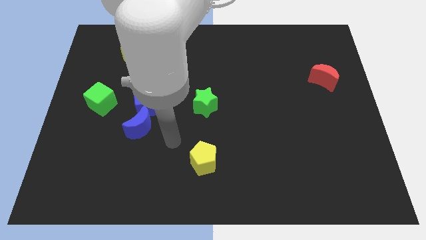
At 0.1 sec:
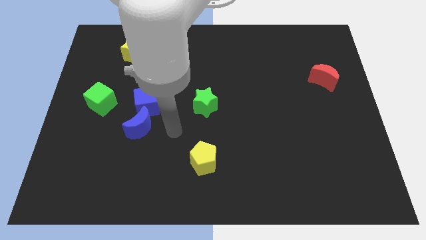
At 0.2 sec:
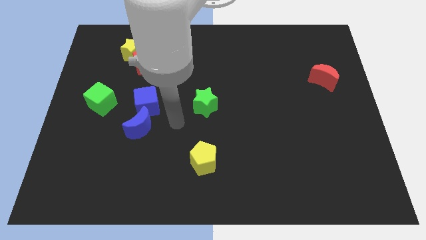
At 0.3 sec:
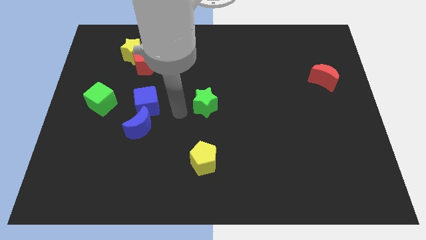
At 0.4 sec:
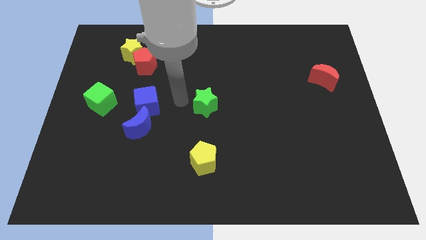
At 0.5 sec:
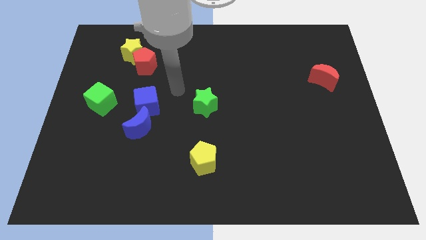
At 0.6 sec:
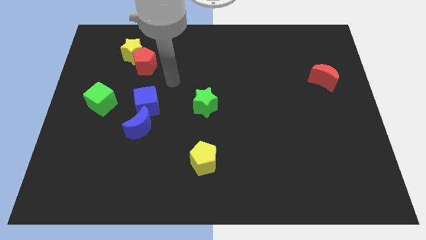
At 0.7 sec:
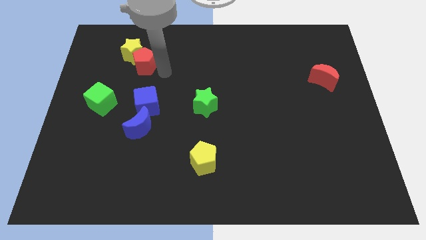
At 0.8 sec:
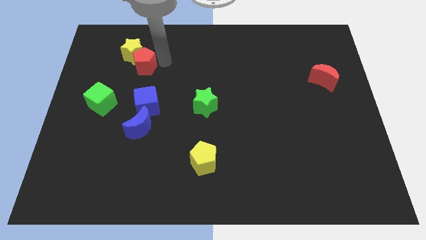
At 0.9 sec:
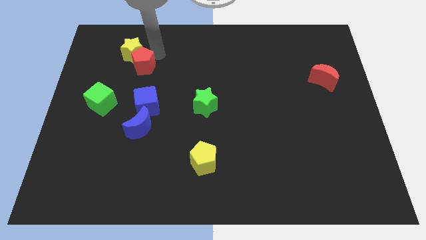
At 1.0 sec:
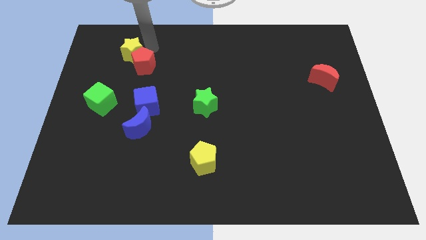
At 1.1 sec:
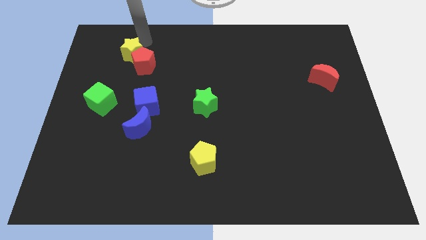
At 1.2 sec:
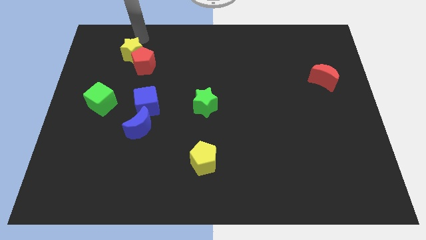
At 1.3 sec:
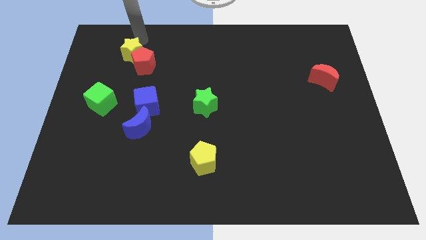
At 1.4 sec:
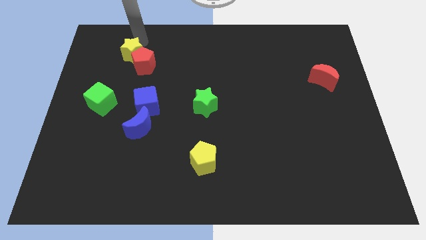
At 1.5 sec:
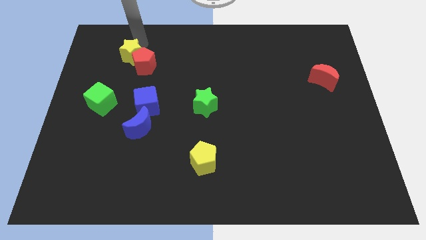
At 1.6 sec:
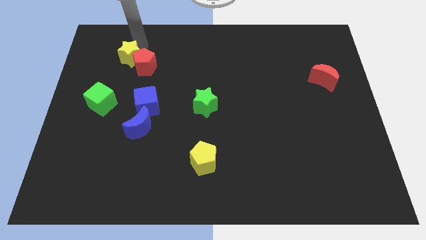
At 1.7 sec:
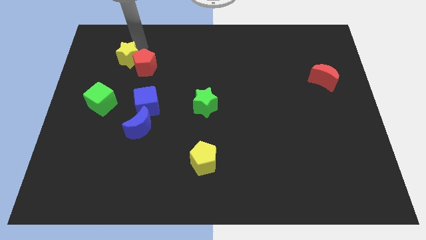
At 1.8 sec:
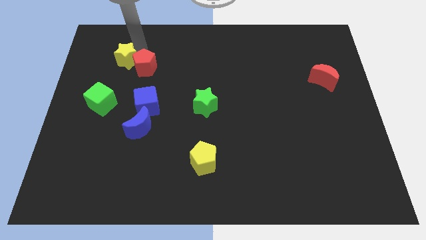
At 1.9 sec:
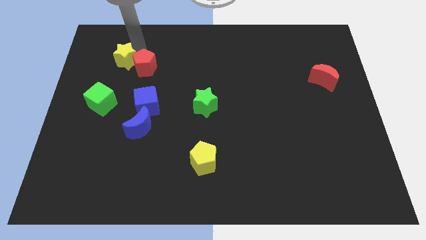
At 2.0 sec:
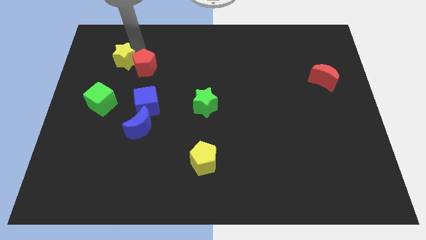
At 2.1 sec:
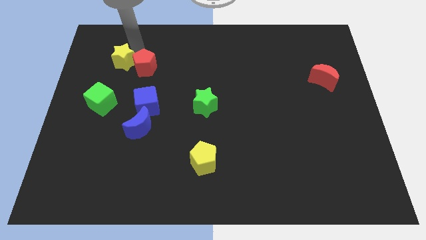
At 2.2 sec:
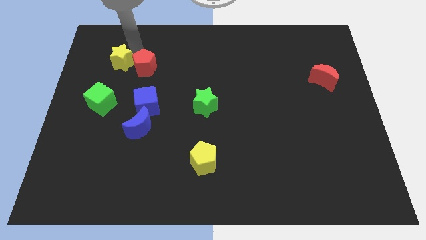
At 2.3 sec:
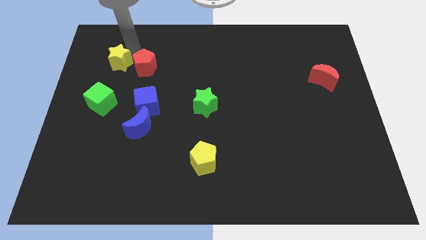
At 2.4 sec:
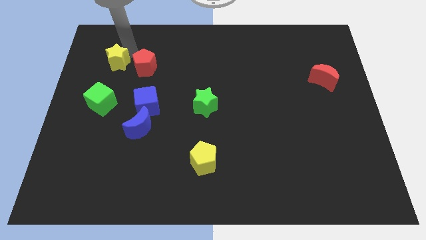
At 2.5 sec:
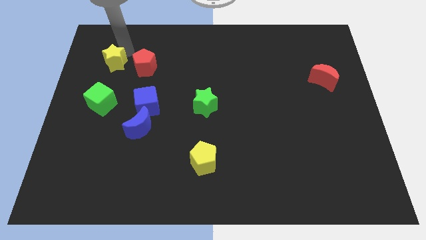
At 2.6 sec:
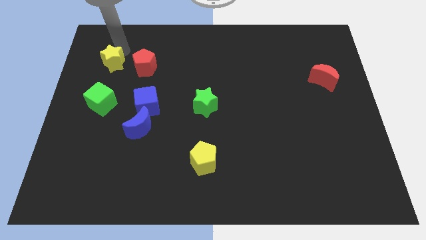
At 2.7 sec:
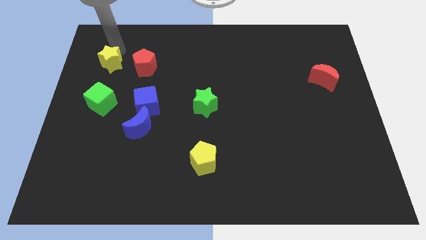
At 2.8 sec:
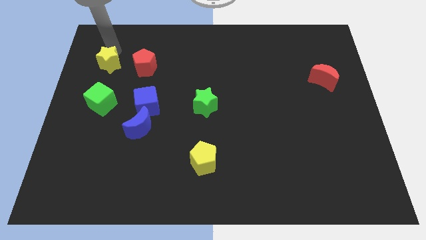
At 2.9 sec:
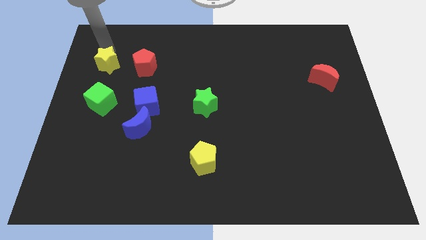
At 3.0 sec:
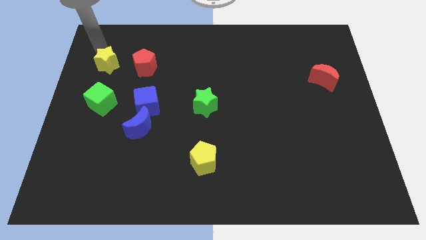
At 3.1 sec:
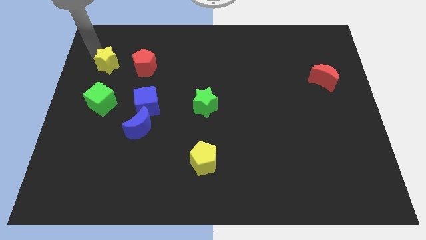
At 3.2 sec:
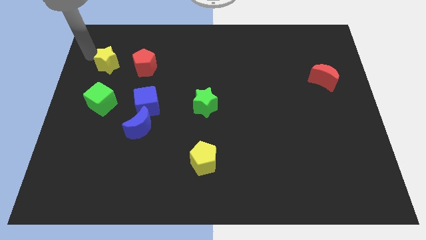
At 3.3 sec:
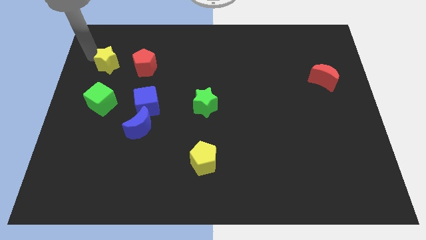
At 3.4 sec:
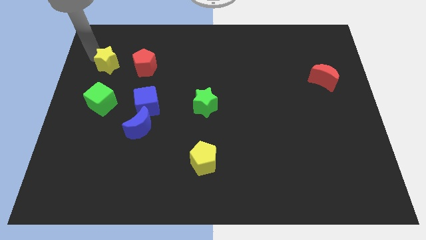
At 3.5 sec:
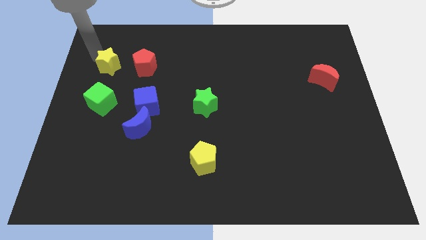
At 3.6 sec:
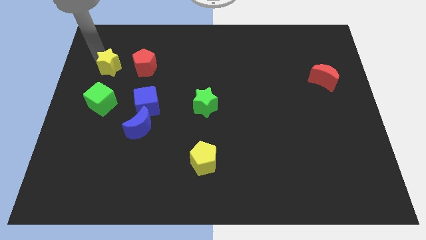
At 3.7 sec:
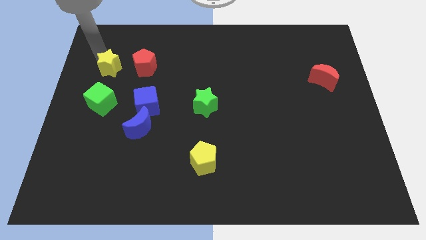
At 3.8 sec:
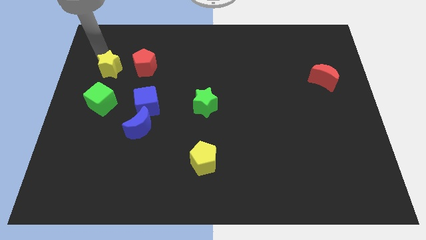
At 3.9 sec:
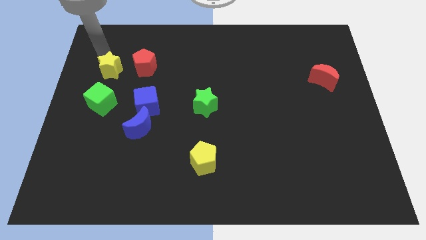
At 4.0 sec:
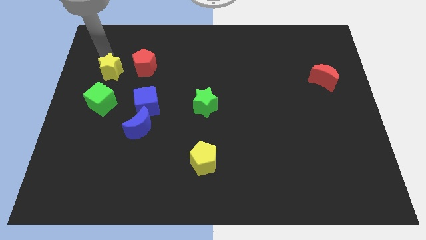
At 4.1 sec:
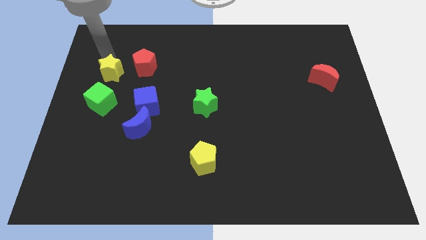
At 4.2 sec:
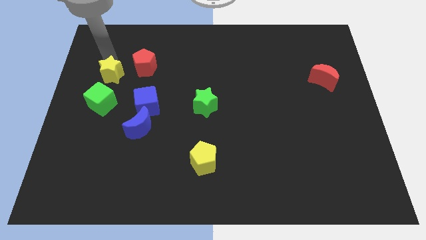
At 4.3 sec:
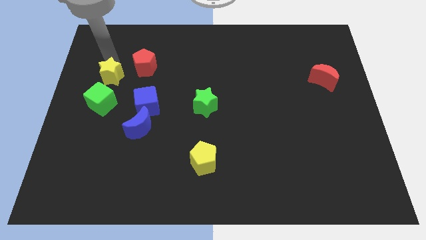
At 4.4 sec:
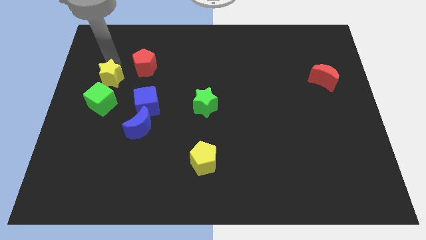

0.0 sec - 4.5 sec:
move the yellow star a little bit downwards

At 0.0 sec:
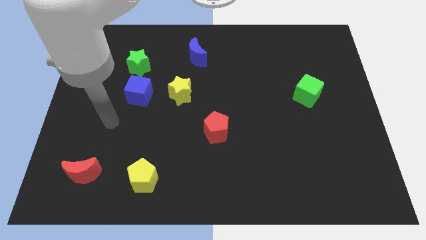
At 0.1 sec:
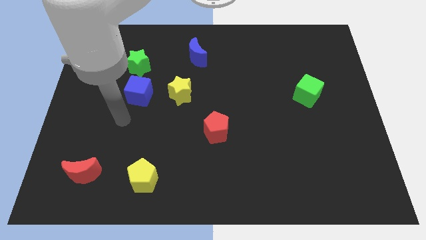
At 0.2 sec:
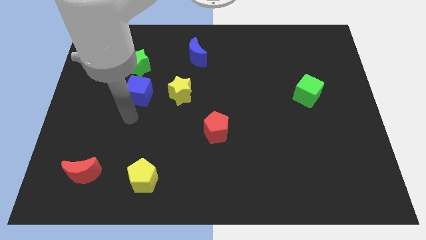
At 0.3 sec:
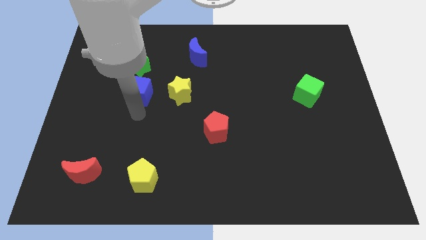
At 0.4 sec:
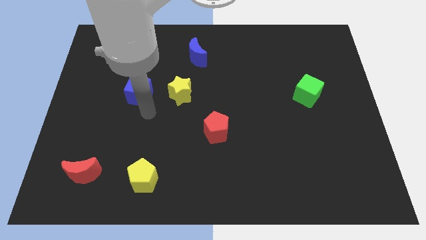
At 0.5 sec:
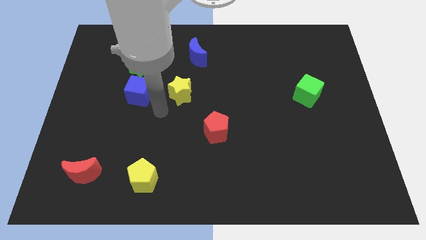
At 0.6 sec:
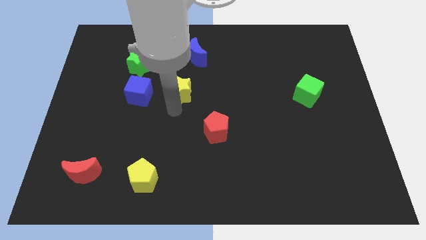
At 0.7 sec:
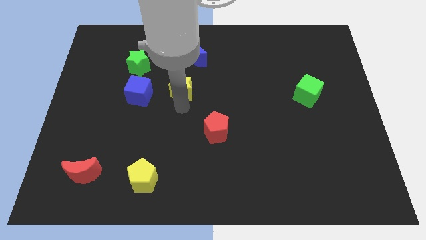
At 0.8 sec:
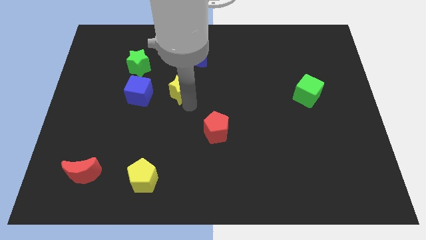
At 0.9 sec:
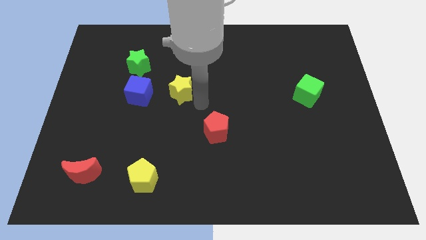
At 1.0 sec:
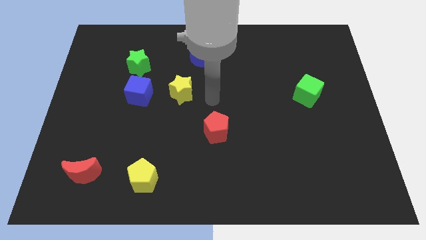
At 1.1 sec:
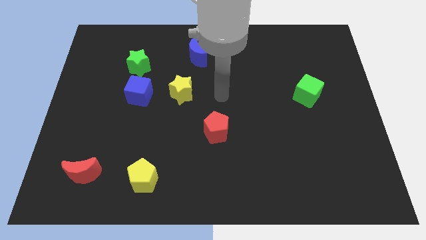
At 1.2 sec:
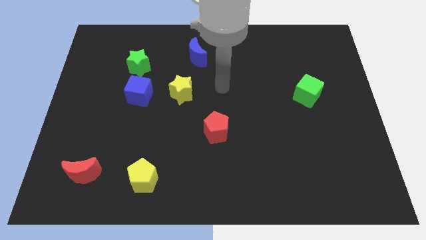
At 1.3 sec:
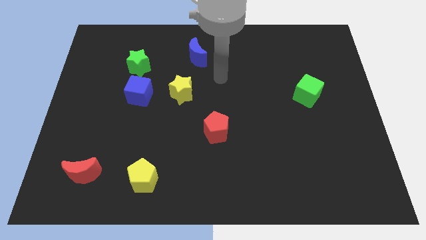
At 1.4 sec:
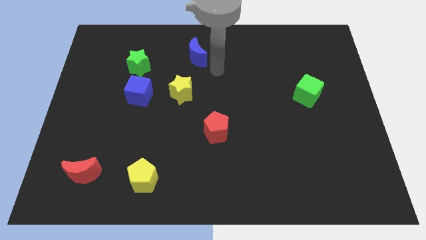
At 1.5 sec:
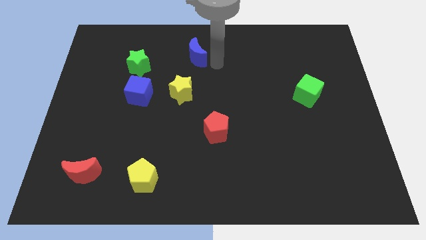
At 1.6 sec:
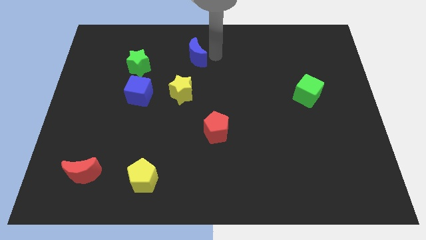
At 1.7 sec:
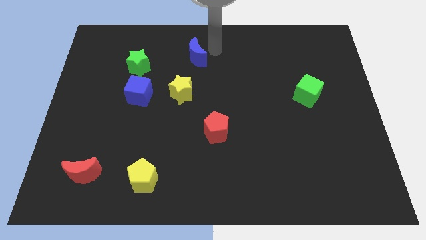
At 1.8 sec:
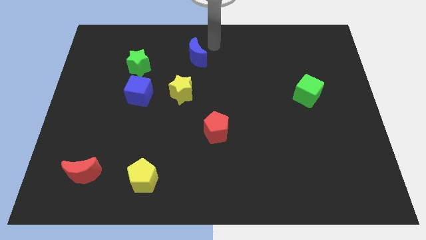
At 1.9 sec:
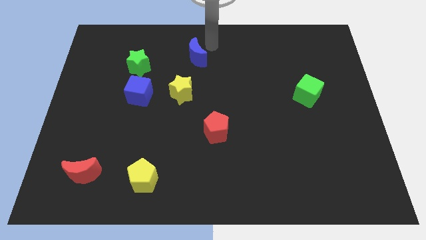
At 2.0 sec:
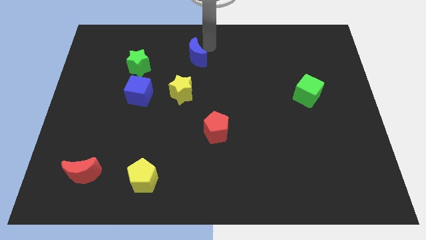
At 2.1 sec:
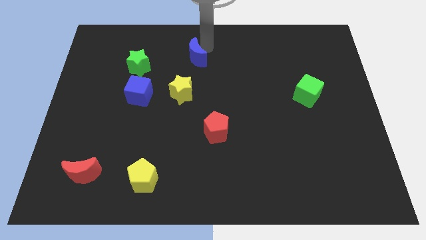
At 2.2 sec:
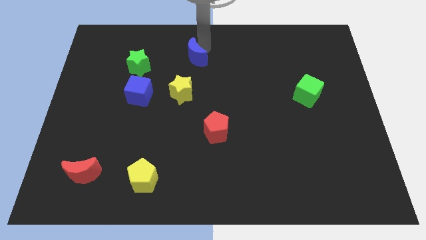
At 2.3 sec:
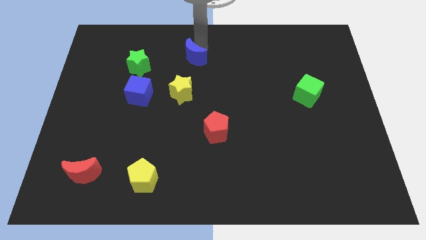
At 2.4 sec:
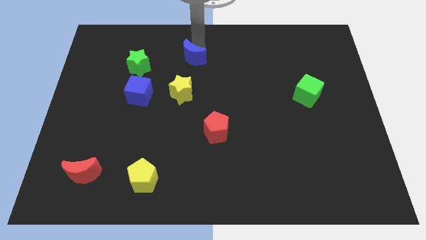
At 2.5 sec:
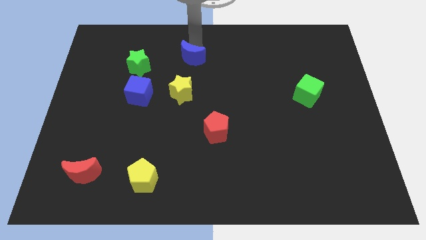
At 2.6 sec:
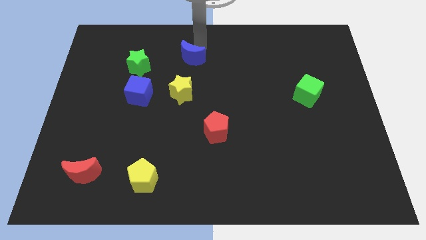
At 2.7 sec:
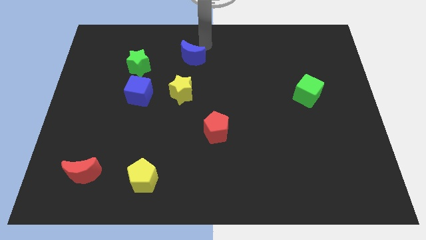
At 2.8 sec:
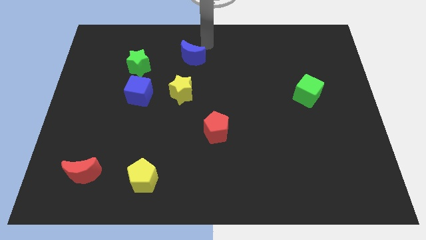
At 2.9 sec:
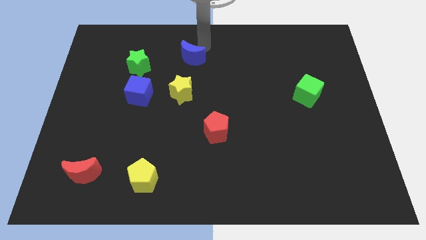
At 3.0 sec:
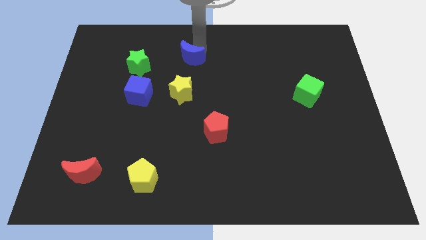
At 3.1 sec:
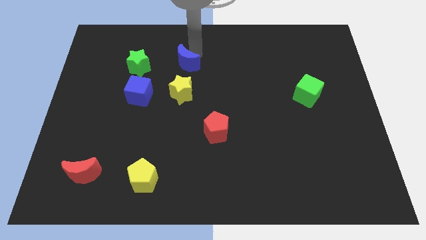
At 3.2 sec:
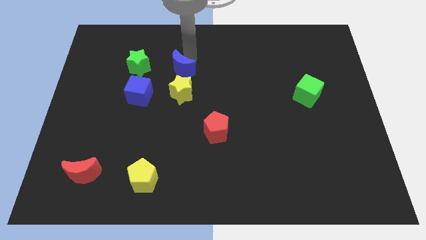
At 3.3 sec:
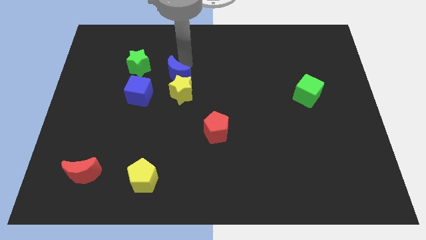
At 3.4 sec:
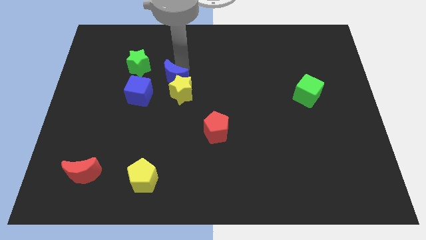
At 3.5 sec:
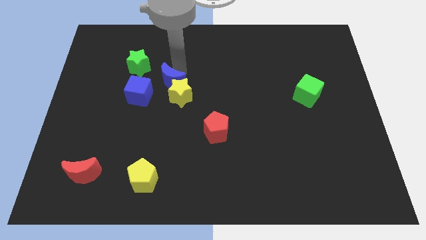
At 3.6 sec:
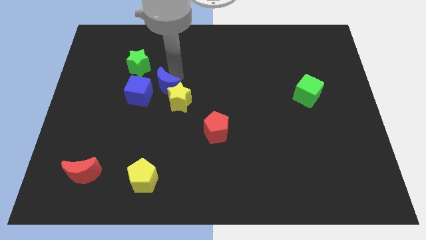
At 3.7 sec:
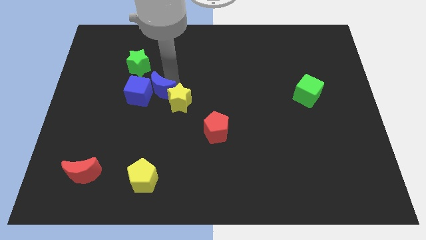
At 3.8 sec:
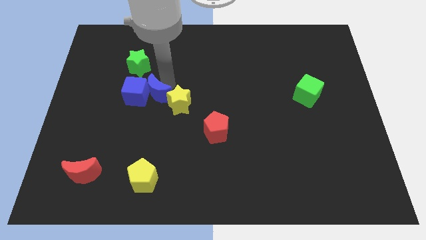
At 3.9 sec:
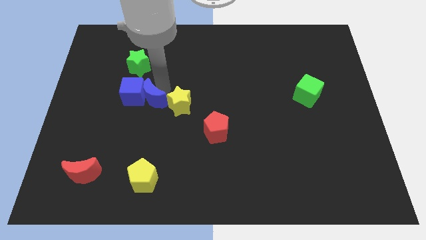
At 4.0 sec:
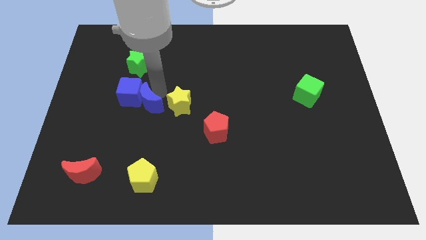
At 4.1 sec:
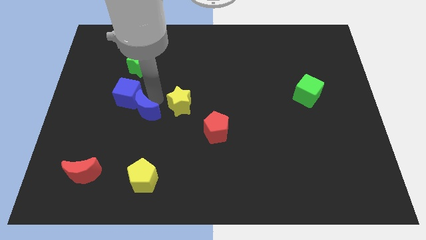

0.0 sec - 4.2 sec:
slide the blue moon down and left diagonally
